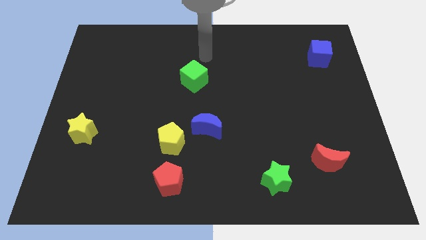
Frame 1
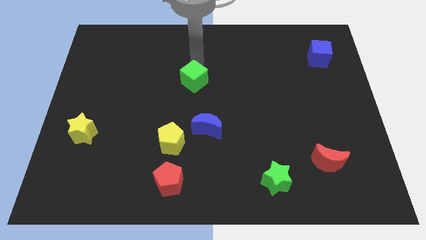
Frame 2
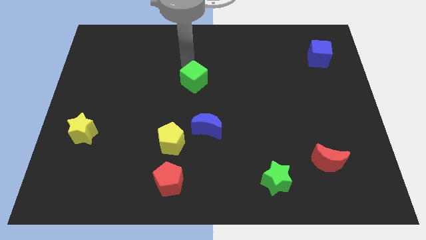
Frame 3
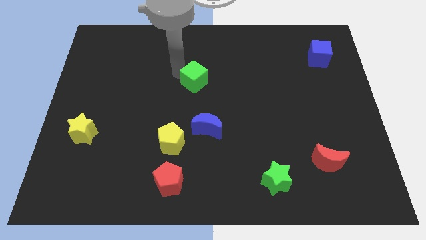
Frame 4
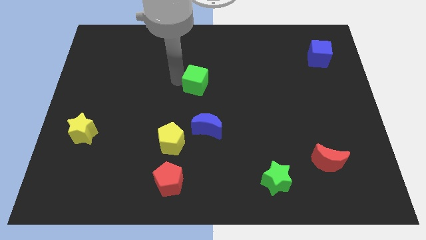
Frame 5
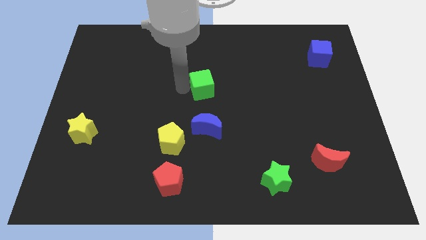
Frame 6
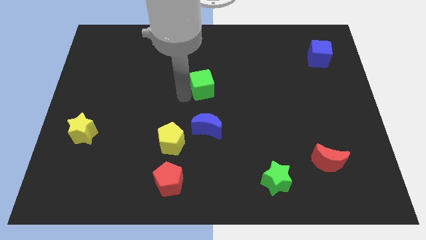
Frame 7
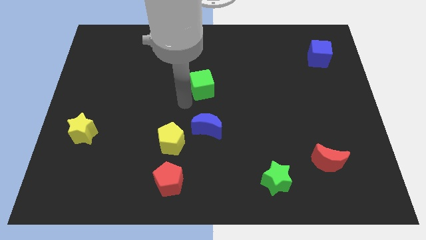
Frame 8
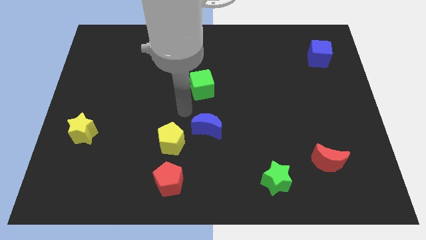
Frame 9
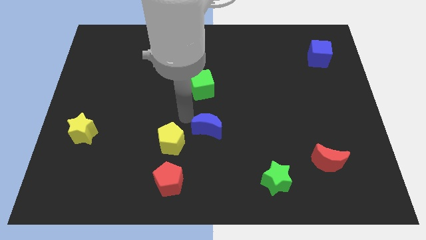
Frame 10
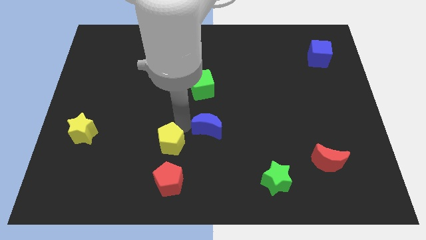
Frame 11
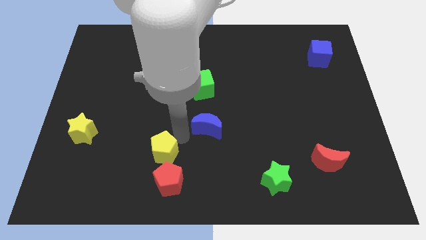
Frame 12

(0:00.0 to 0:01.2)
separate the blue moon from the yellow pentagon

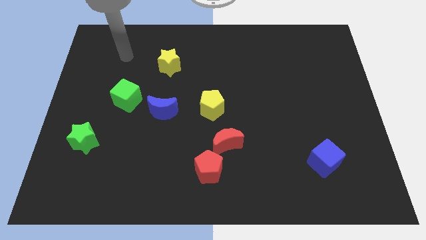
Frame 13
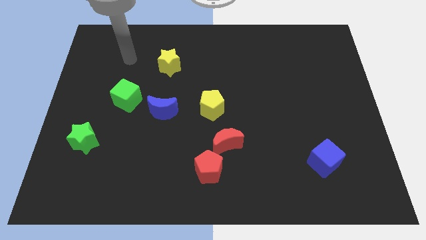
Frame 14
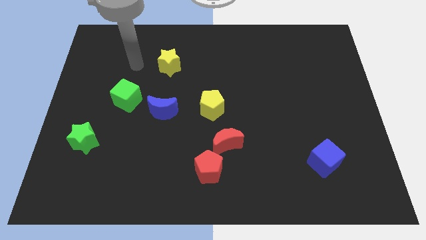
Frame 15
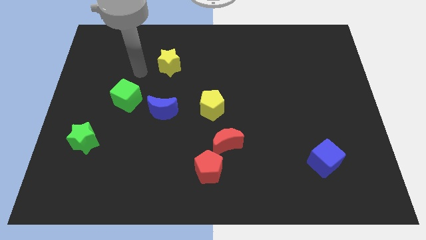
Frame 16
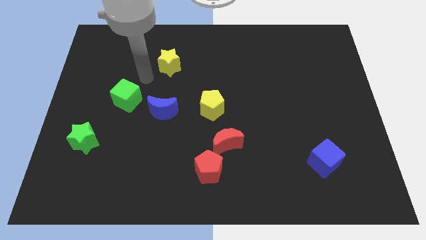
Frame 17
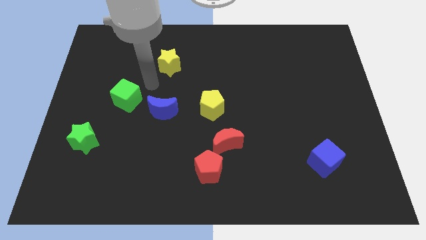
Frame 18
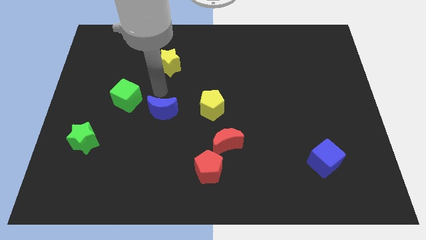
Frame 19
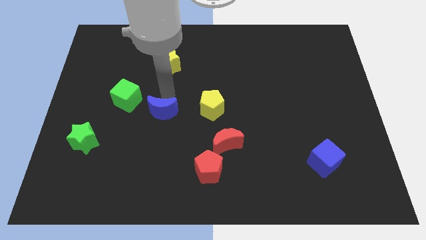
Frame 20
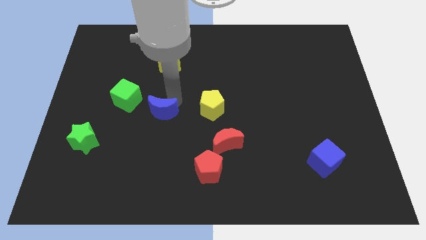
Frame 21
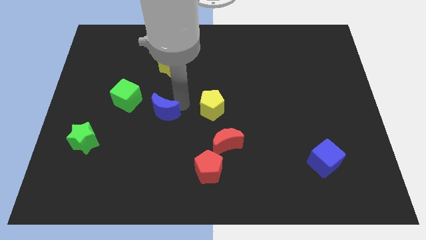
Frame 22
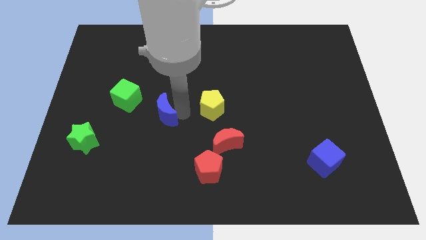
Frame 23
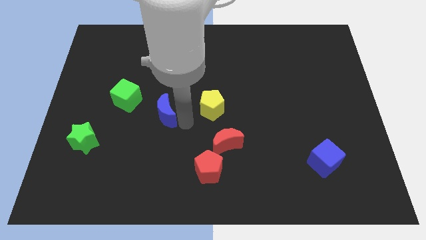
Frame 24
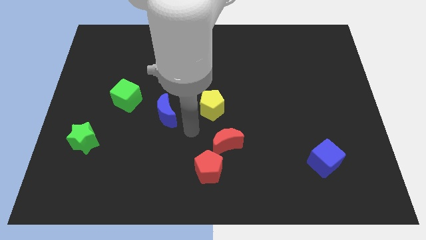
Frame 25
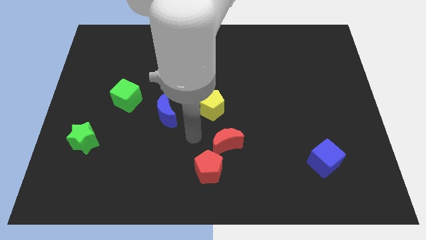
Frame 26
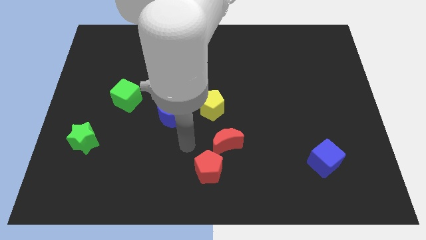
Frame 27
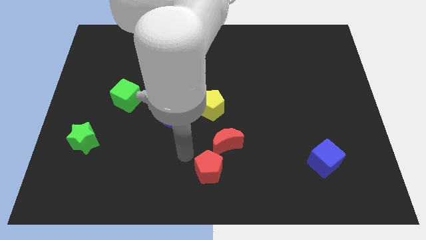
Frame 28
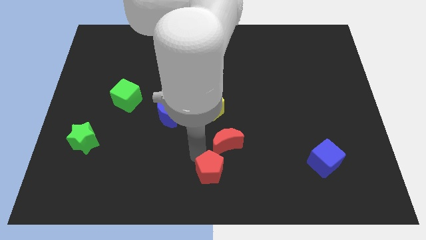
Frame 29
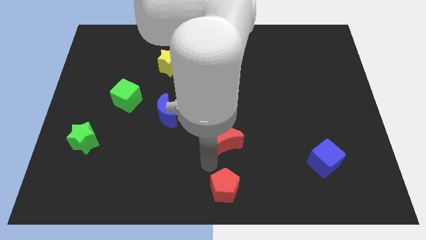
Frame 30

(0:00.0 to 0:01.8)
move the red moon away from the red pentagon

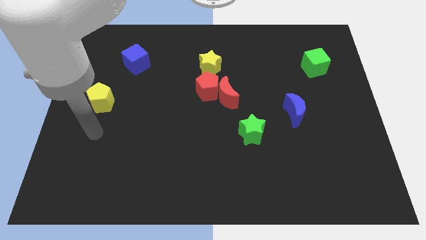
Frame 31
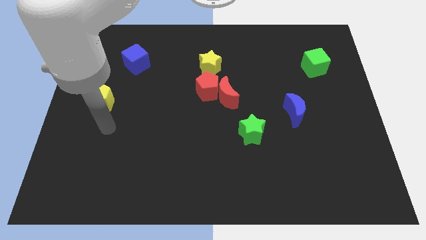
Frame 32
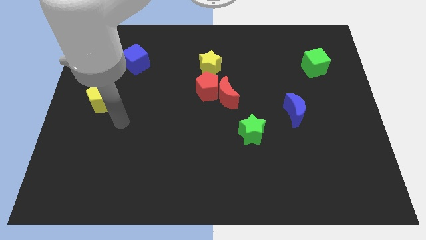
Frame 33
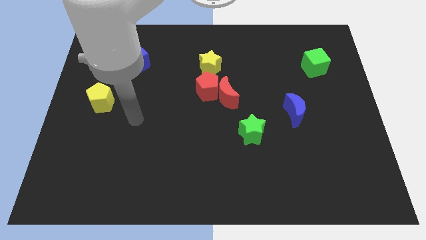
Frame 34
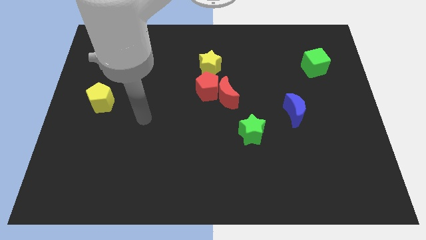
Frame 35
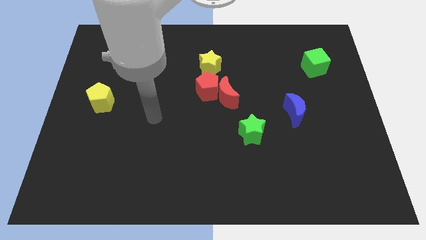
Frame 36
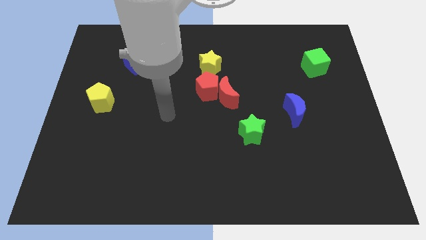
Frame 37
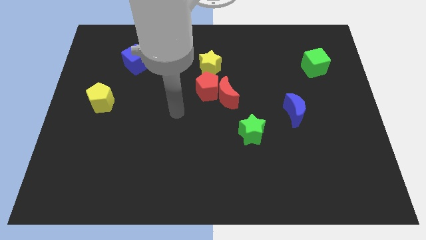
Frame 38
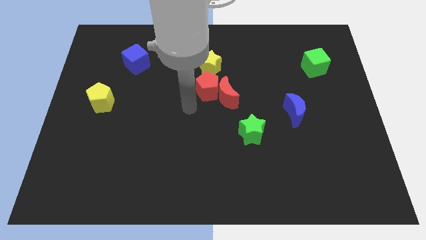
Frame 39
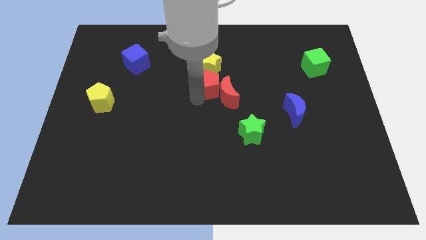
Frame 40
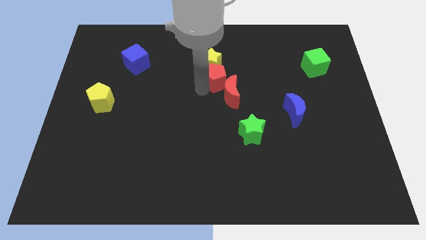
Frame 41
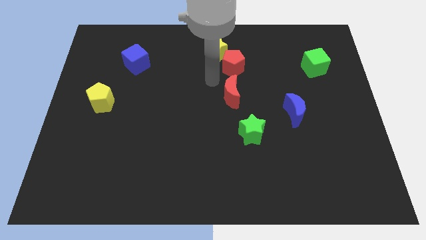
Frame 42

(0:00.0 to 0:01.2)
separate the red moon from the red pentagon

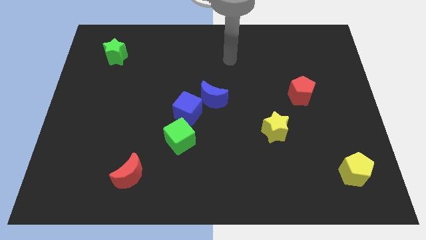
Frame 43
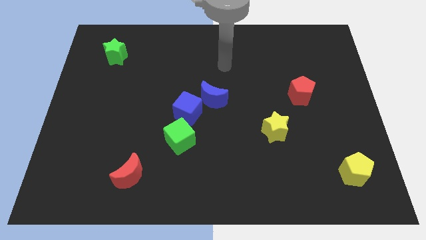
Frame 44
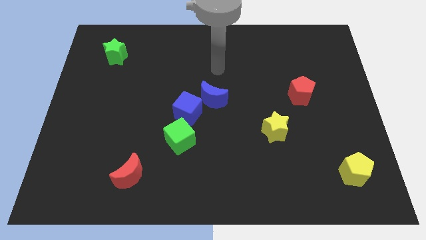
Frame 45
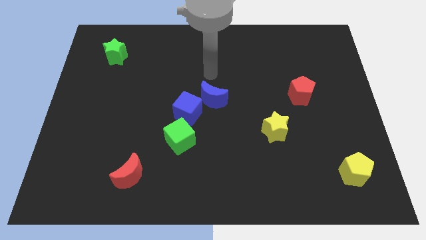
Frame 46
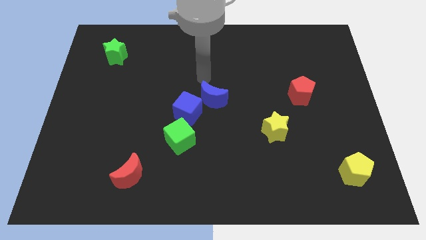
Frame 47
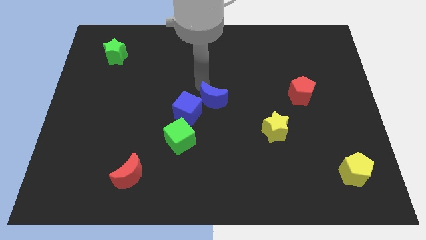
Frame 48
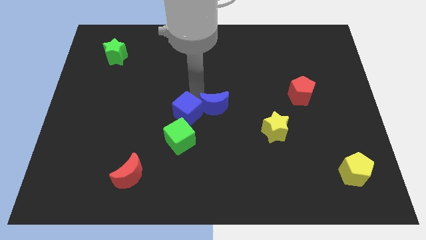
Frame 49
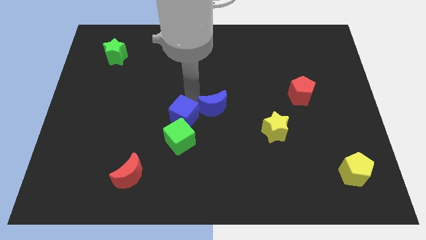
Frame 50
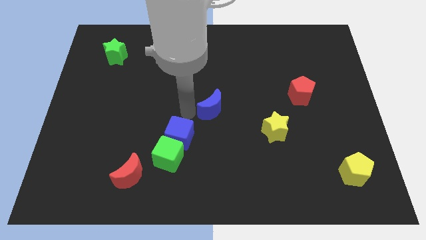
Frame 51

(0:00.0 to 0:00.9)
move the blue moon away from the blue cube

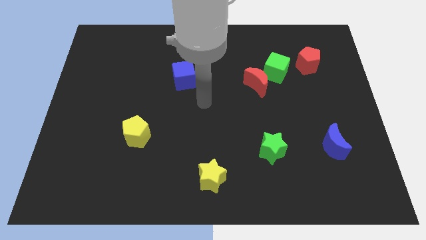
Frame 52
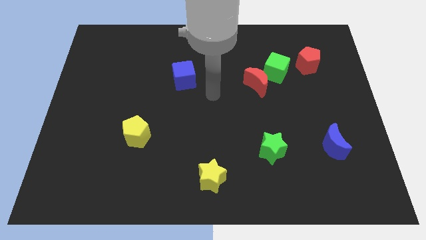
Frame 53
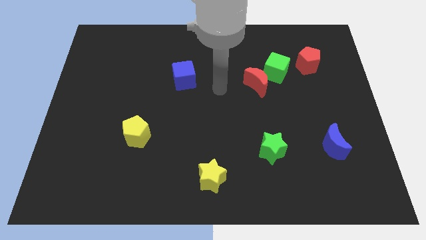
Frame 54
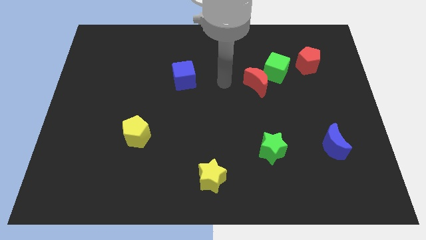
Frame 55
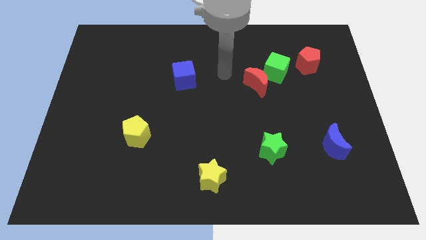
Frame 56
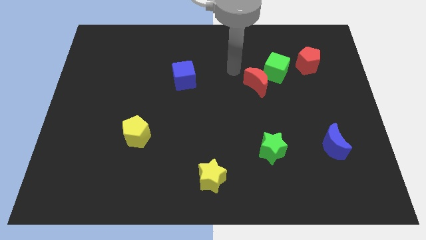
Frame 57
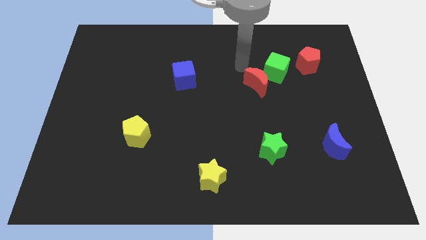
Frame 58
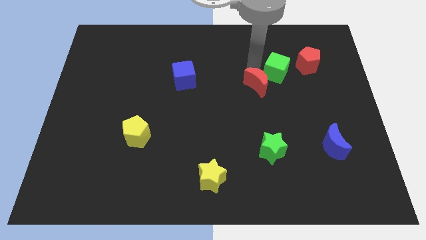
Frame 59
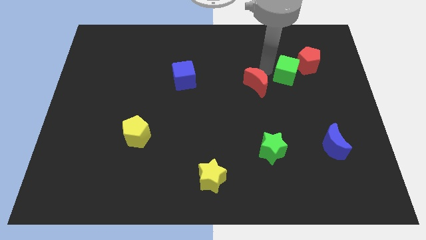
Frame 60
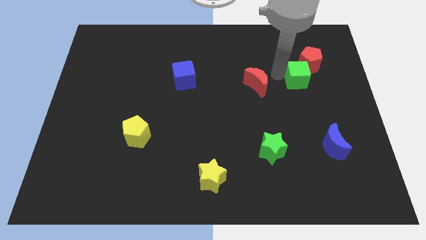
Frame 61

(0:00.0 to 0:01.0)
separate the red moon from the green cube

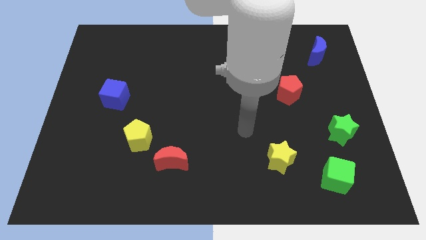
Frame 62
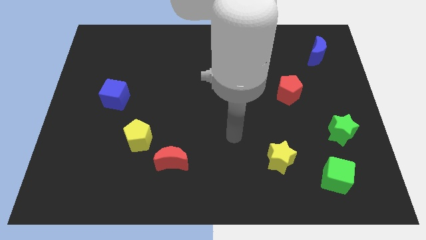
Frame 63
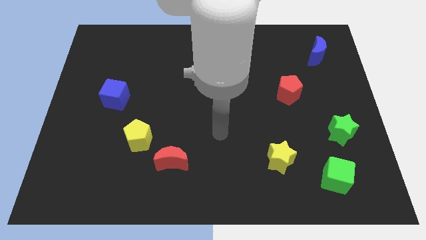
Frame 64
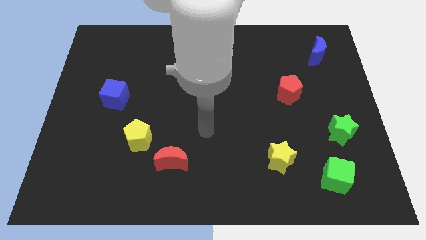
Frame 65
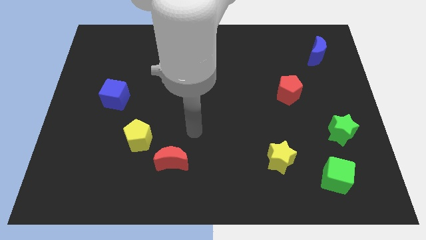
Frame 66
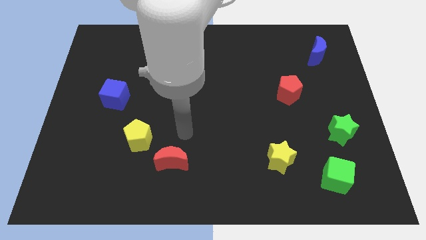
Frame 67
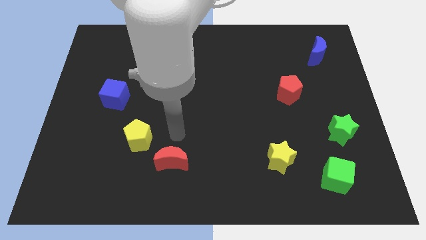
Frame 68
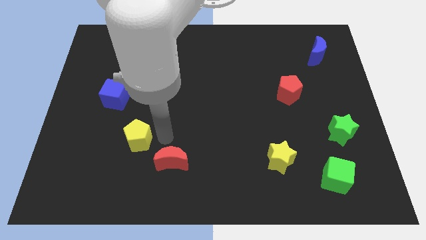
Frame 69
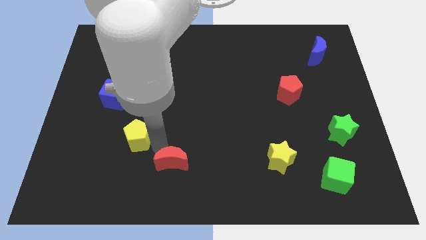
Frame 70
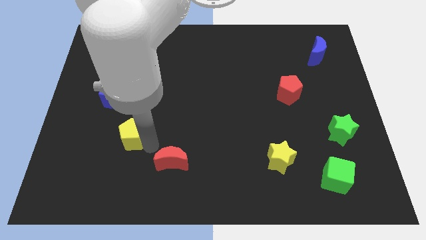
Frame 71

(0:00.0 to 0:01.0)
move the red moon away from the yellow pentagon

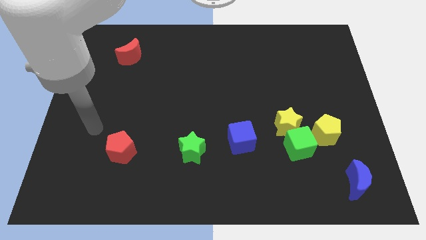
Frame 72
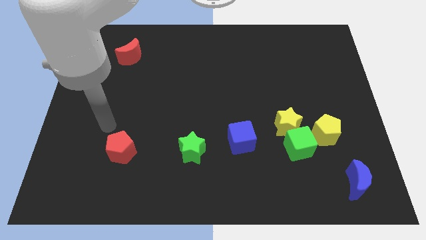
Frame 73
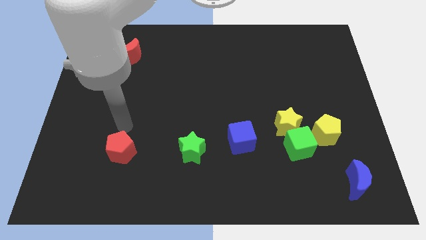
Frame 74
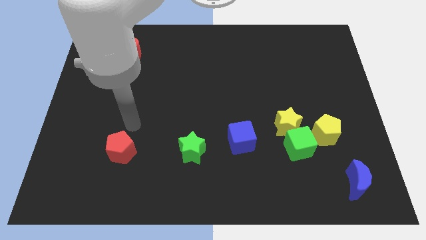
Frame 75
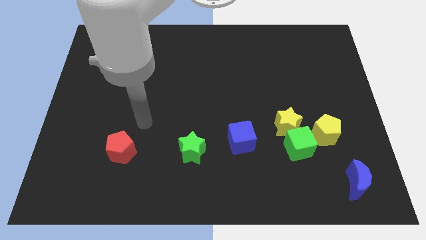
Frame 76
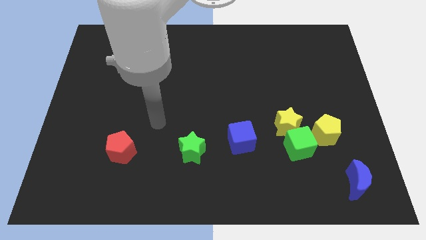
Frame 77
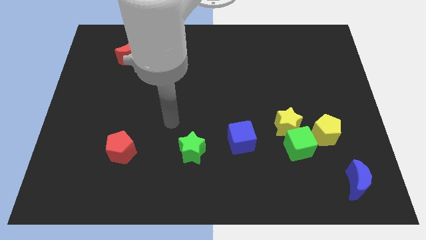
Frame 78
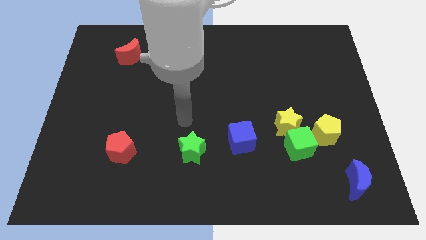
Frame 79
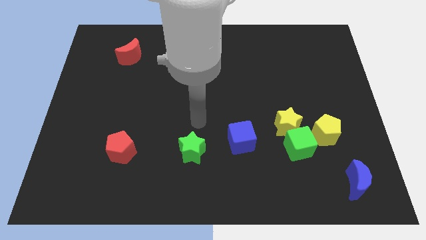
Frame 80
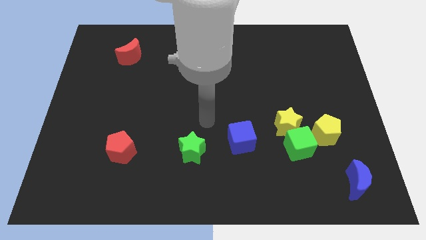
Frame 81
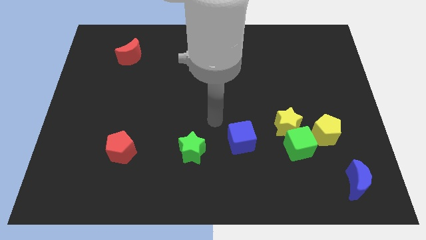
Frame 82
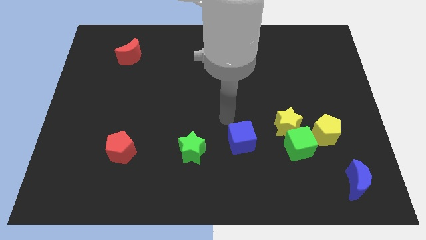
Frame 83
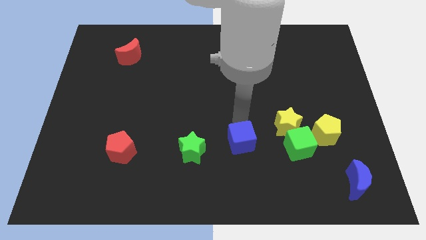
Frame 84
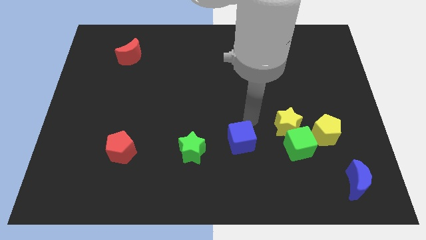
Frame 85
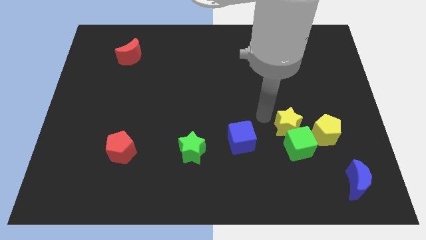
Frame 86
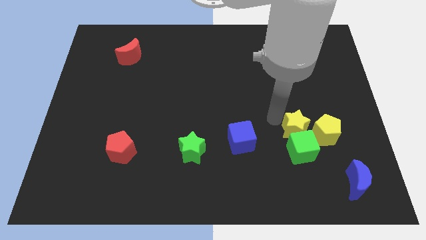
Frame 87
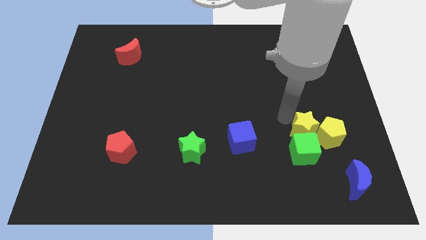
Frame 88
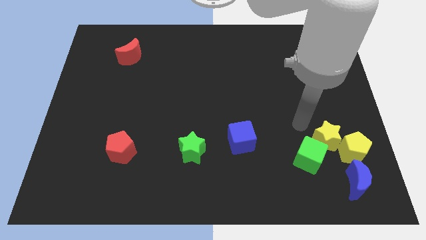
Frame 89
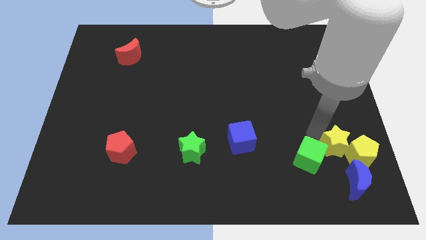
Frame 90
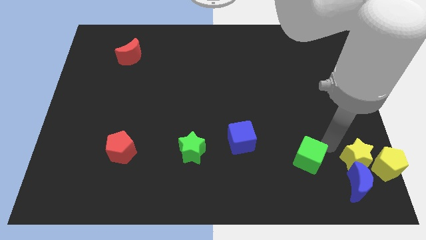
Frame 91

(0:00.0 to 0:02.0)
move the green cube away from the yellow star and yellow pentagon

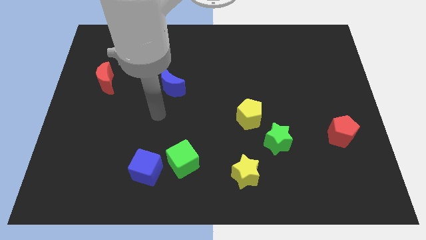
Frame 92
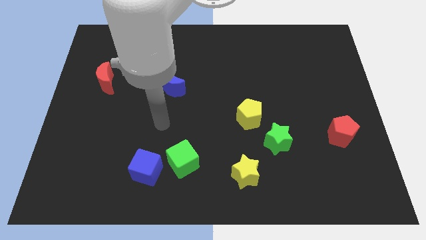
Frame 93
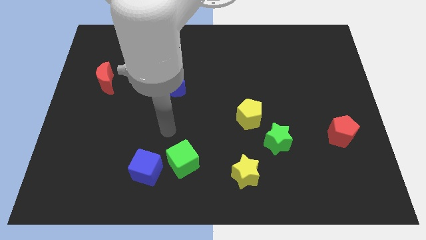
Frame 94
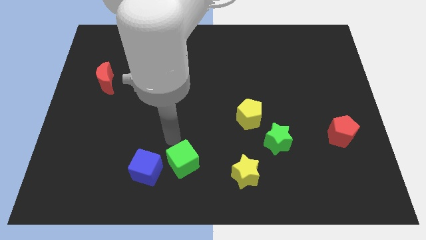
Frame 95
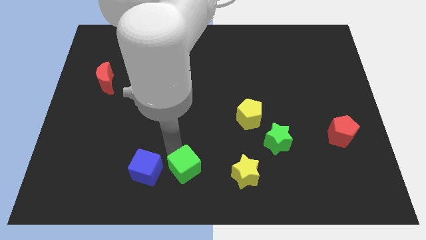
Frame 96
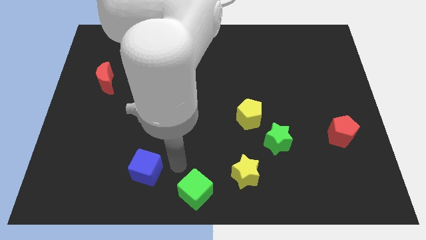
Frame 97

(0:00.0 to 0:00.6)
pull the blue cube apart from the green cube
